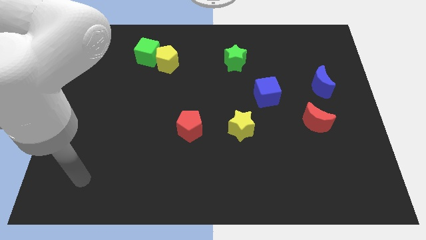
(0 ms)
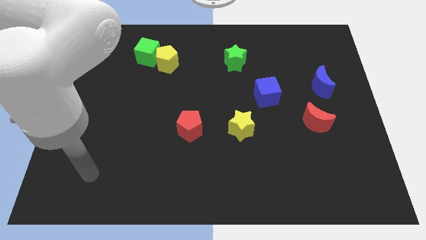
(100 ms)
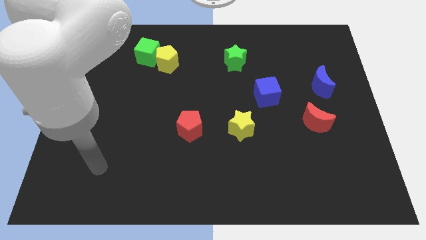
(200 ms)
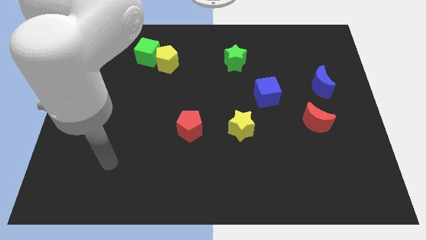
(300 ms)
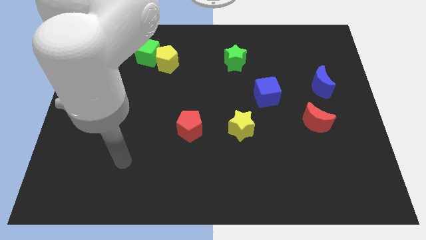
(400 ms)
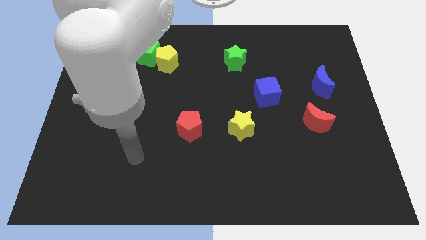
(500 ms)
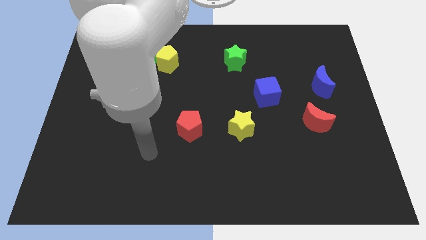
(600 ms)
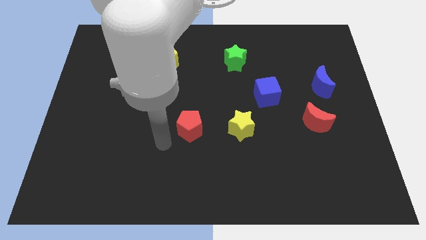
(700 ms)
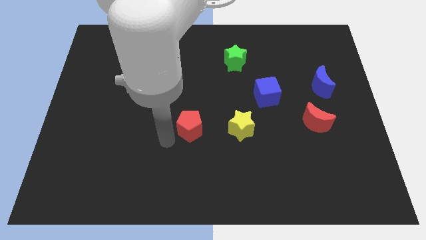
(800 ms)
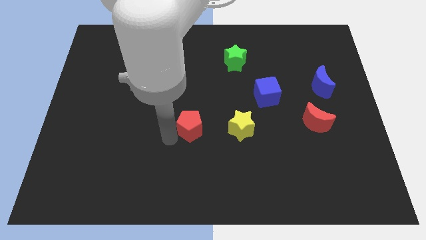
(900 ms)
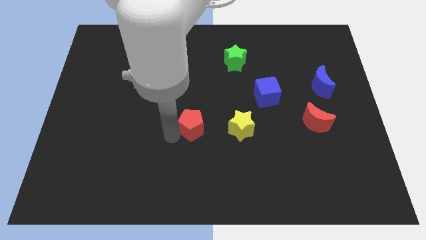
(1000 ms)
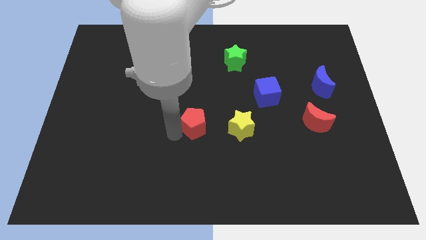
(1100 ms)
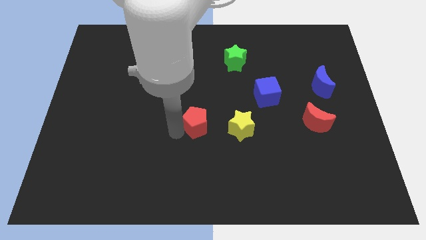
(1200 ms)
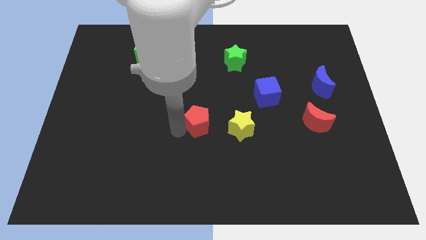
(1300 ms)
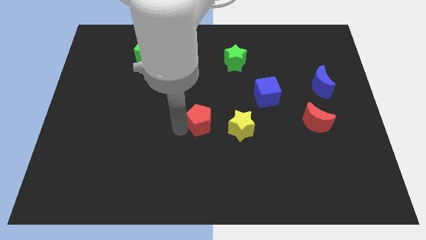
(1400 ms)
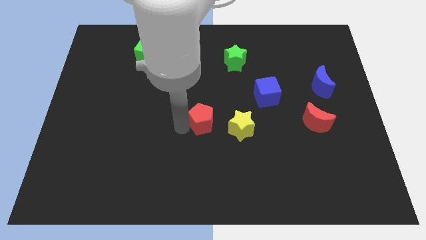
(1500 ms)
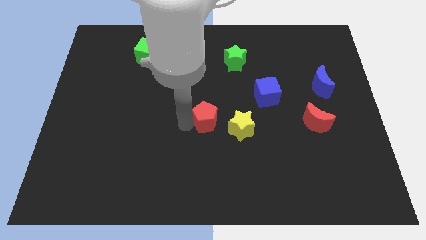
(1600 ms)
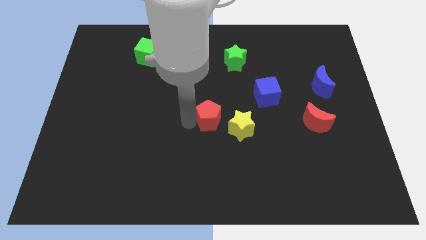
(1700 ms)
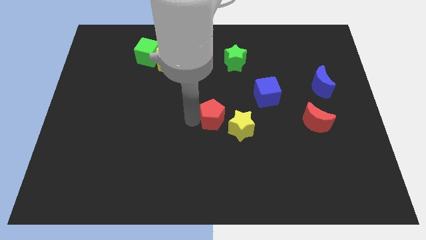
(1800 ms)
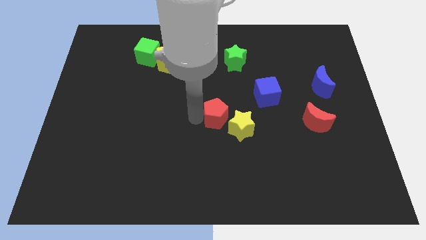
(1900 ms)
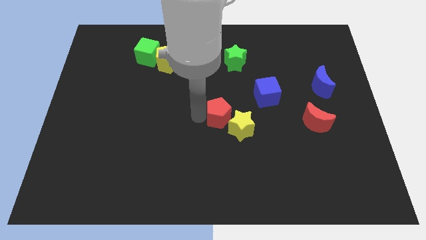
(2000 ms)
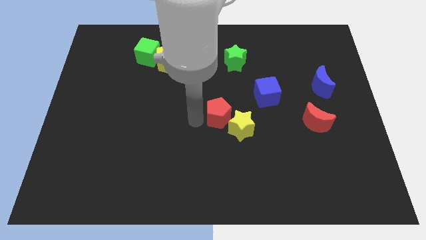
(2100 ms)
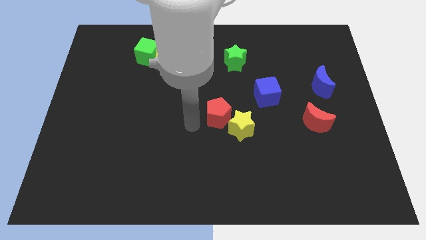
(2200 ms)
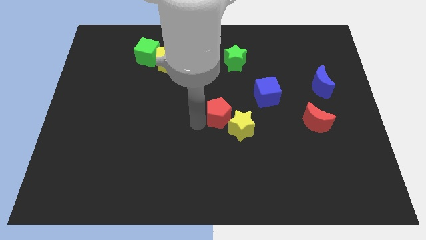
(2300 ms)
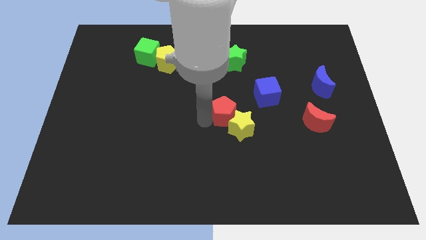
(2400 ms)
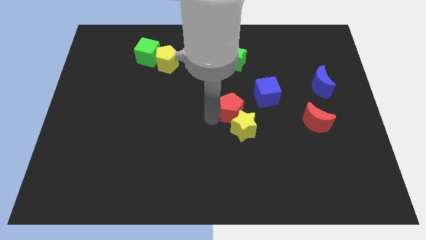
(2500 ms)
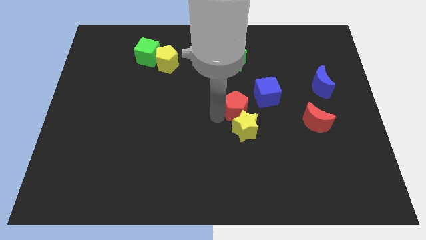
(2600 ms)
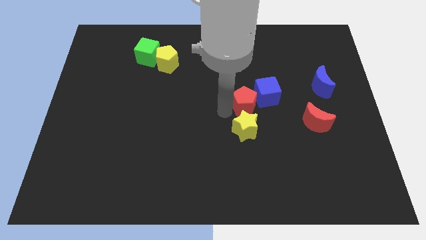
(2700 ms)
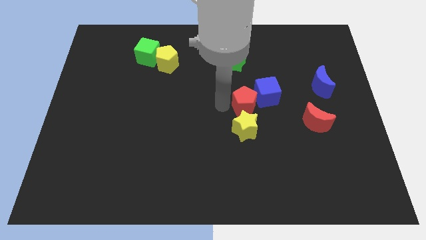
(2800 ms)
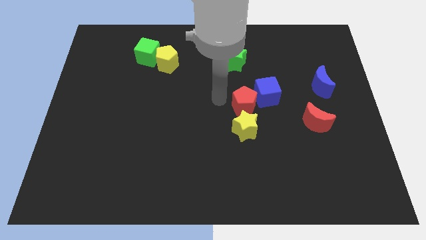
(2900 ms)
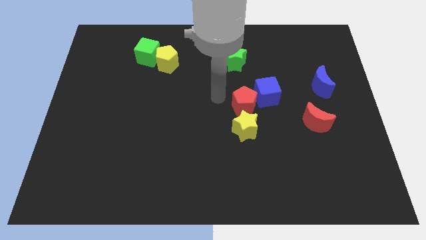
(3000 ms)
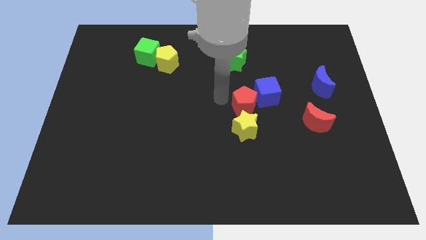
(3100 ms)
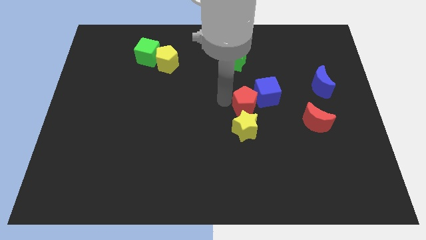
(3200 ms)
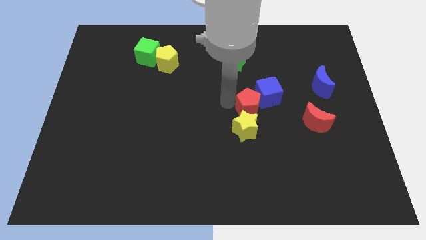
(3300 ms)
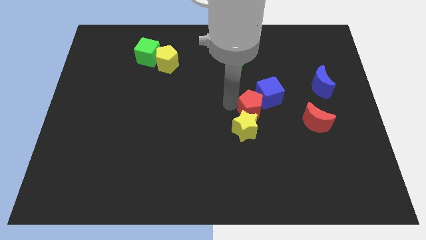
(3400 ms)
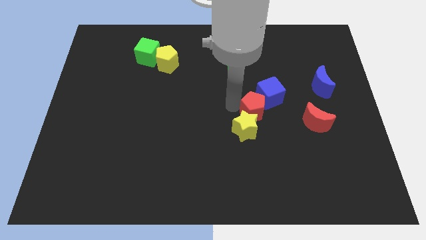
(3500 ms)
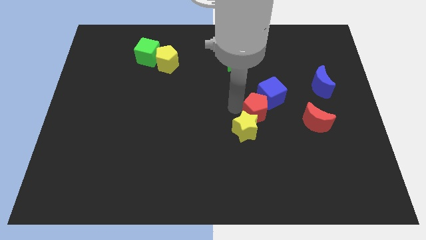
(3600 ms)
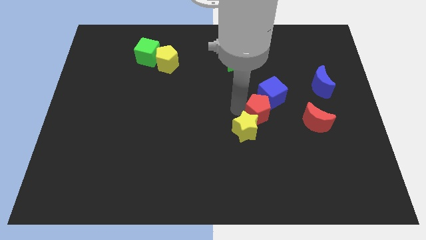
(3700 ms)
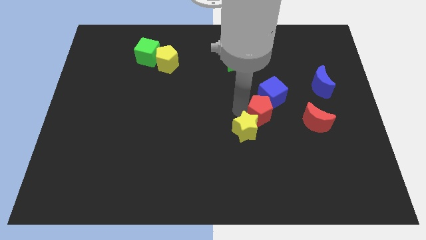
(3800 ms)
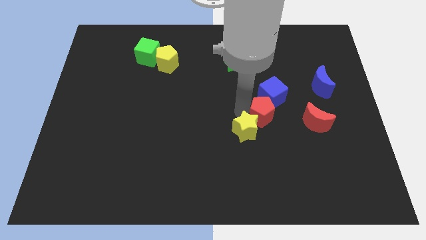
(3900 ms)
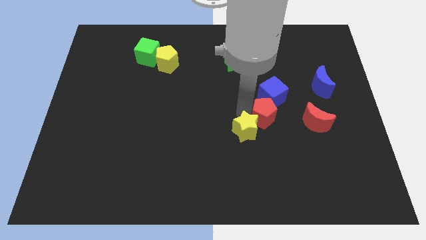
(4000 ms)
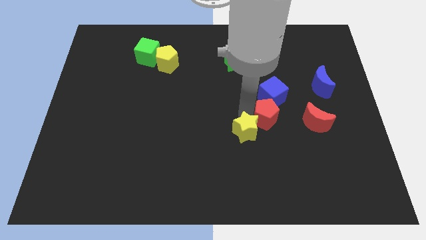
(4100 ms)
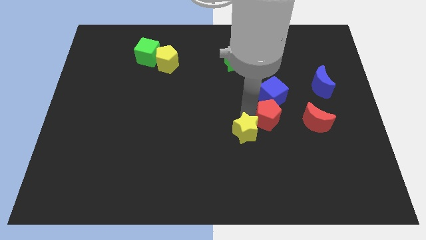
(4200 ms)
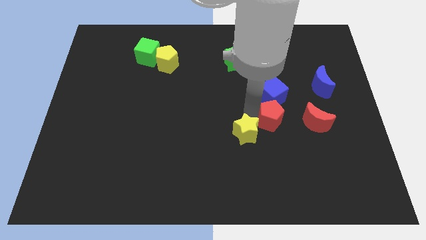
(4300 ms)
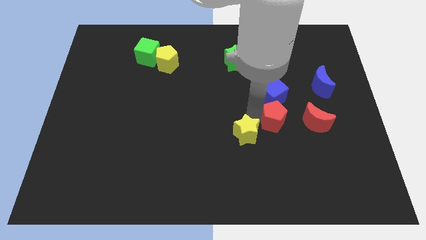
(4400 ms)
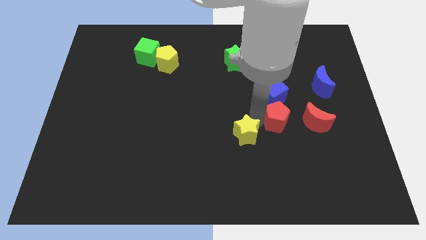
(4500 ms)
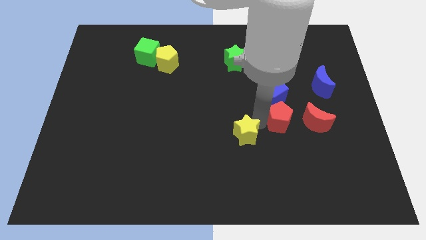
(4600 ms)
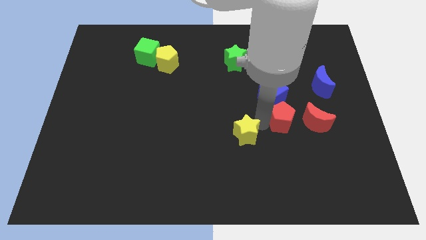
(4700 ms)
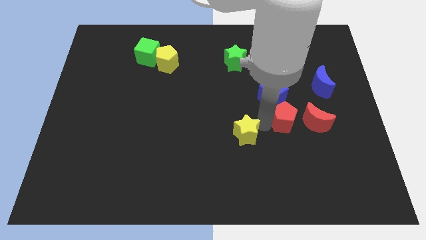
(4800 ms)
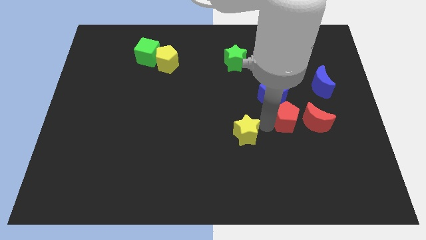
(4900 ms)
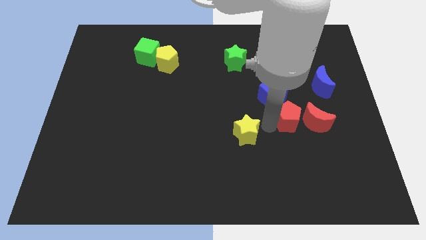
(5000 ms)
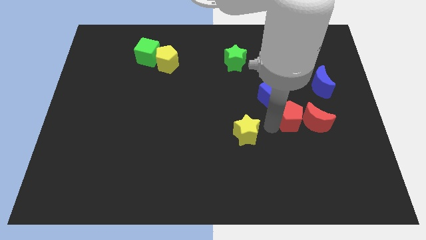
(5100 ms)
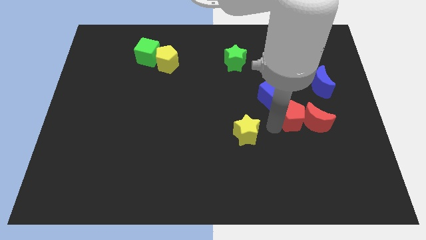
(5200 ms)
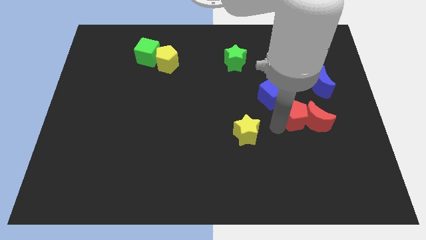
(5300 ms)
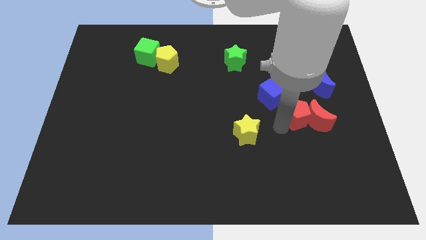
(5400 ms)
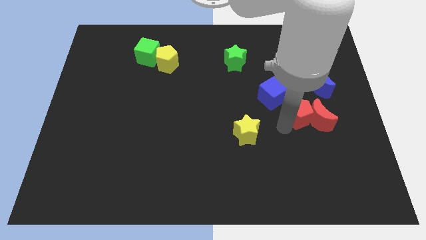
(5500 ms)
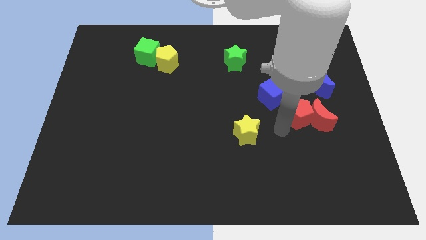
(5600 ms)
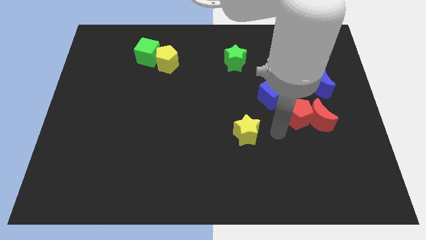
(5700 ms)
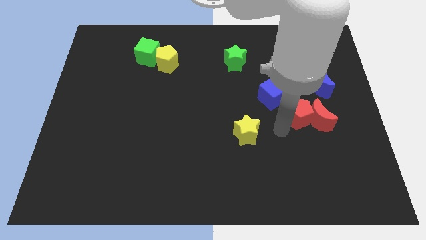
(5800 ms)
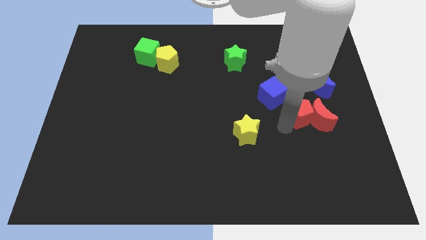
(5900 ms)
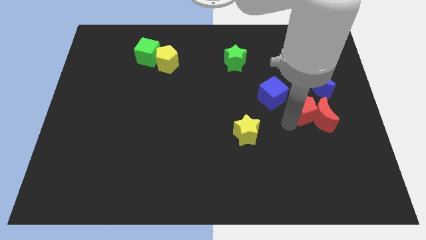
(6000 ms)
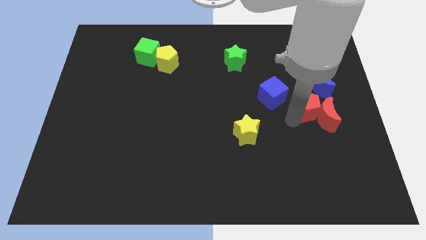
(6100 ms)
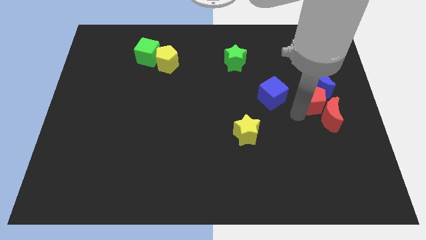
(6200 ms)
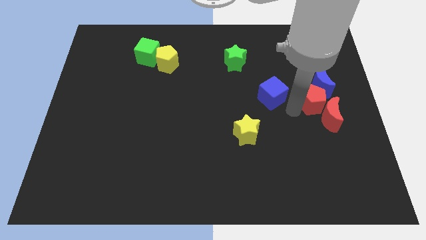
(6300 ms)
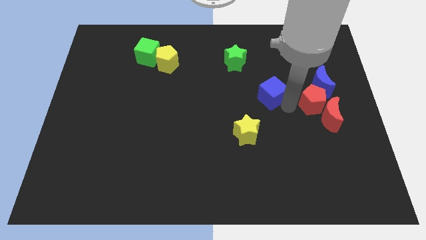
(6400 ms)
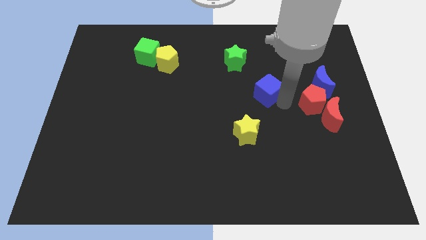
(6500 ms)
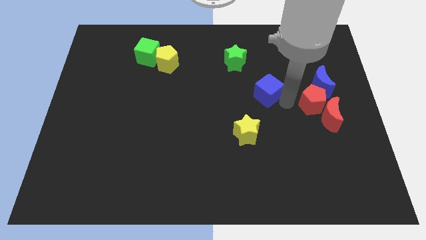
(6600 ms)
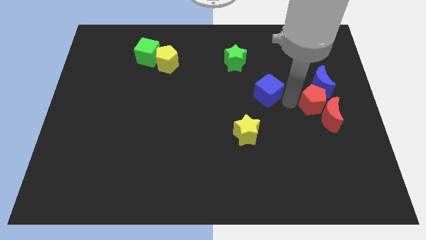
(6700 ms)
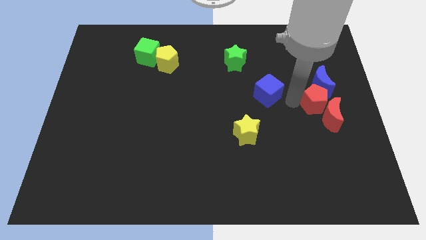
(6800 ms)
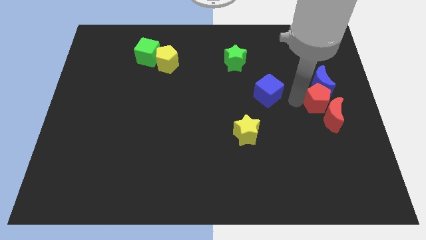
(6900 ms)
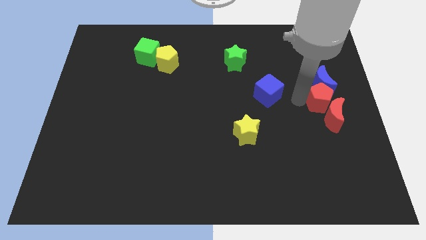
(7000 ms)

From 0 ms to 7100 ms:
move the red pentagon to the center right
